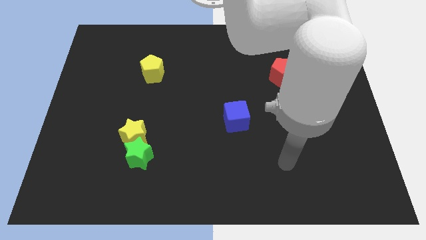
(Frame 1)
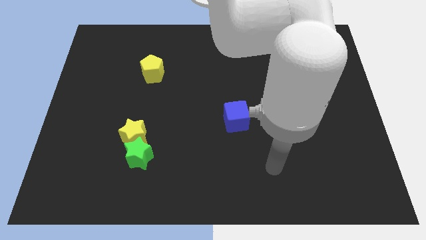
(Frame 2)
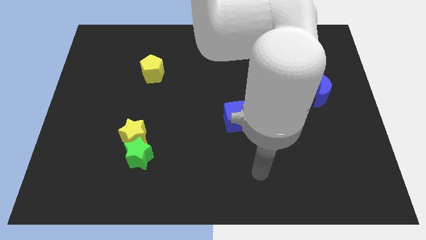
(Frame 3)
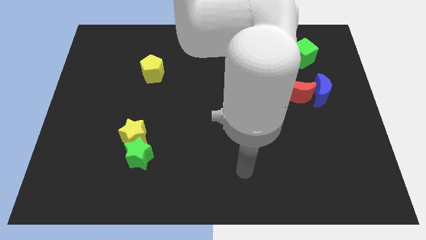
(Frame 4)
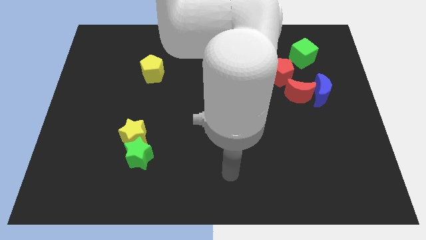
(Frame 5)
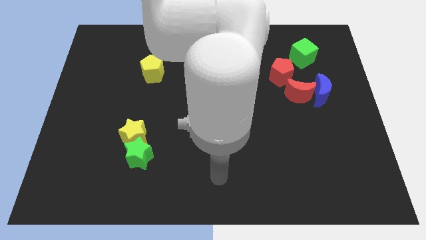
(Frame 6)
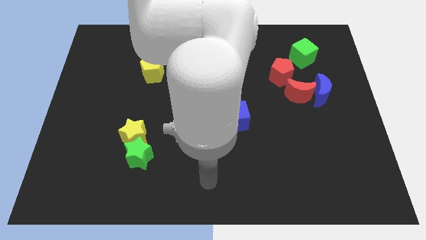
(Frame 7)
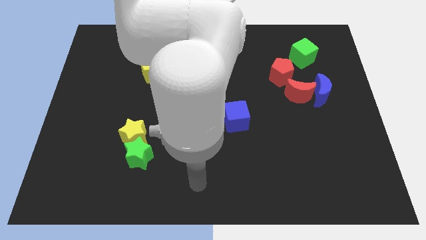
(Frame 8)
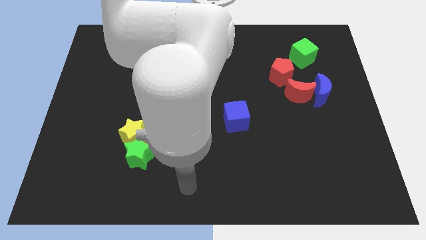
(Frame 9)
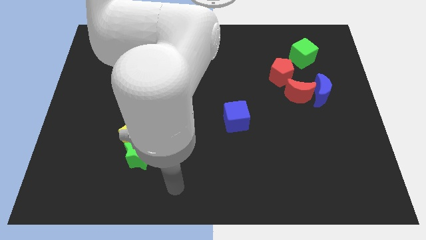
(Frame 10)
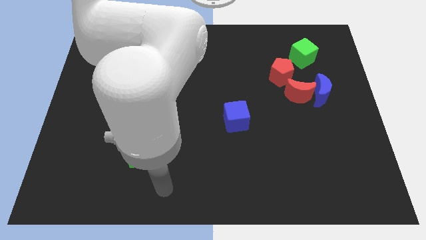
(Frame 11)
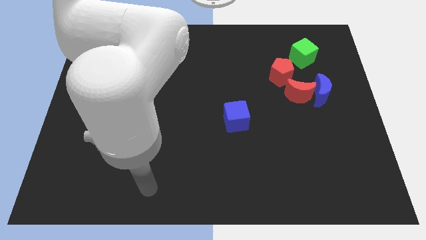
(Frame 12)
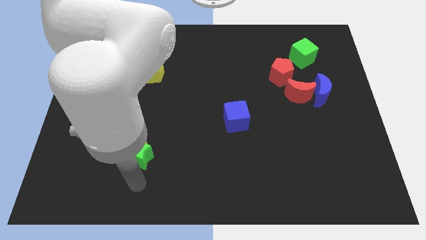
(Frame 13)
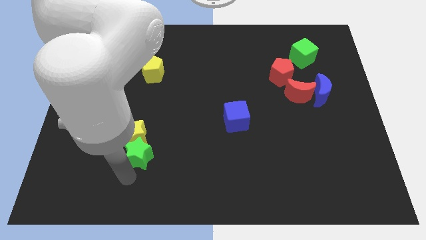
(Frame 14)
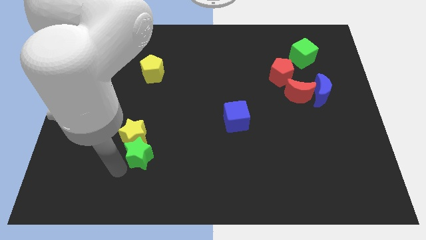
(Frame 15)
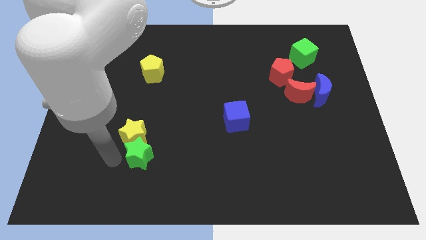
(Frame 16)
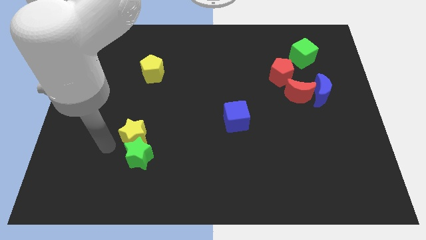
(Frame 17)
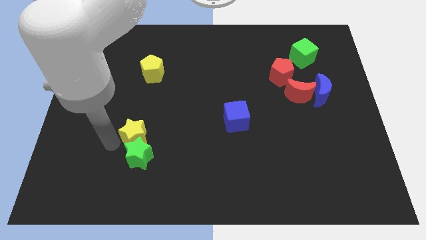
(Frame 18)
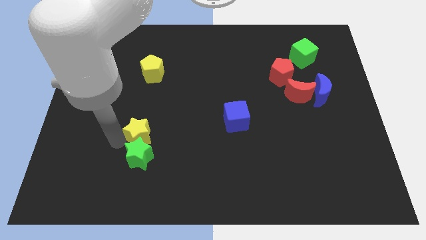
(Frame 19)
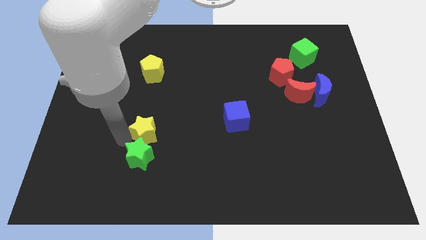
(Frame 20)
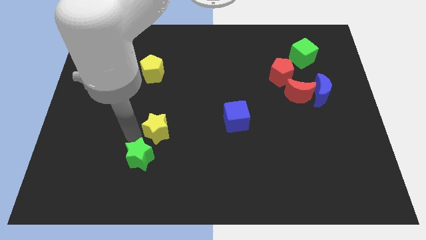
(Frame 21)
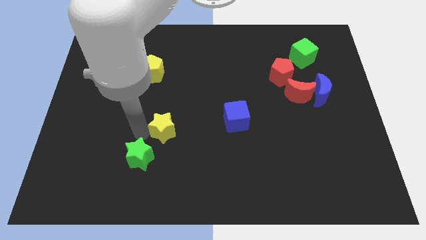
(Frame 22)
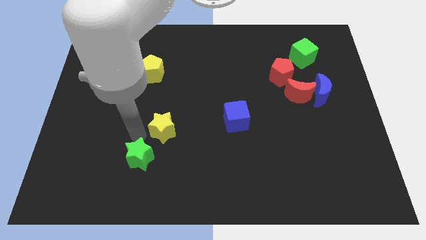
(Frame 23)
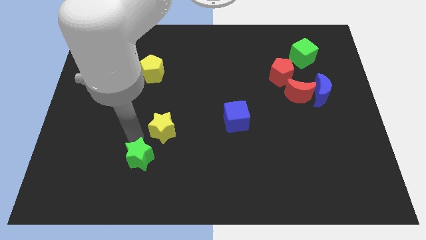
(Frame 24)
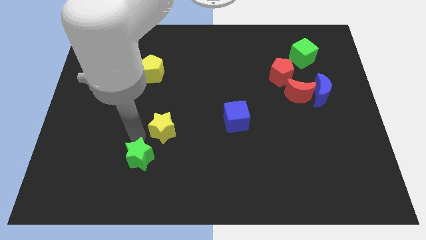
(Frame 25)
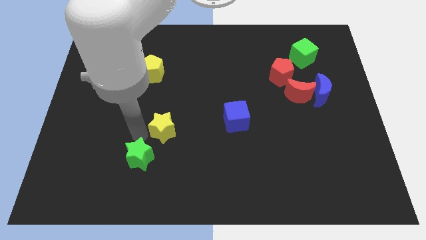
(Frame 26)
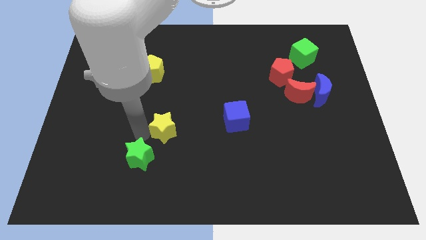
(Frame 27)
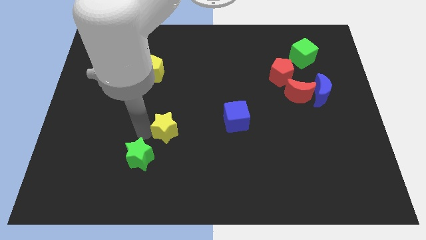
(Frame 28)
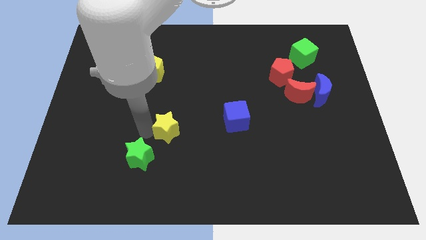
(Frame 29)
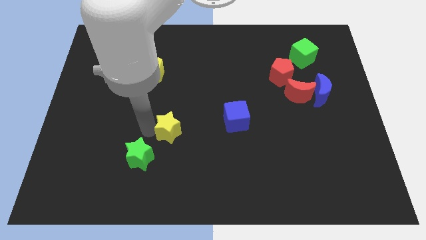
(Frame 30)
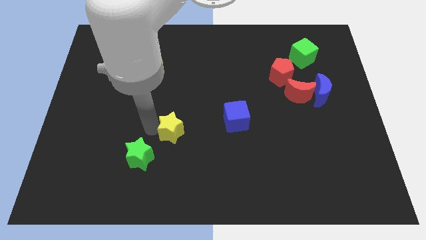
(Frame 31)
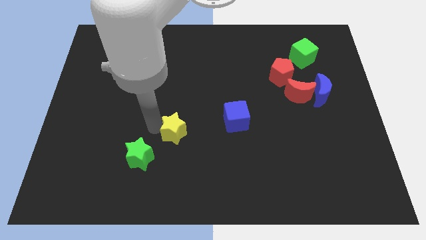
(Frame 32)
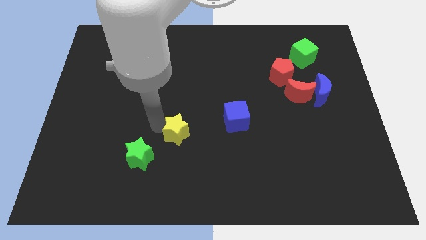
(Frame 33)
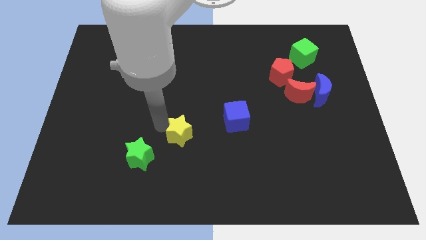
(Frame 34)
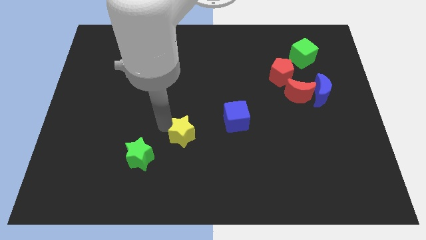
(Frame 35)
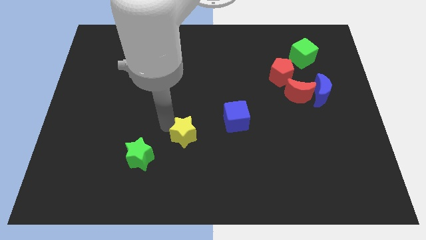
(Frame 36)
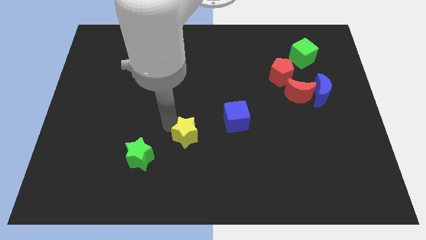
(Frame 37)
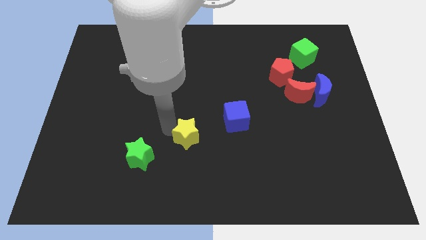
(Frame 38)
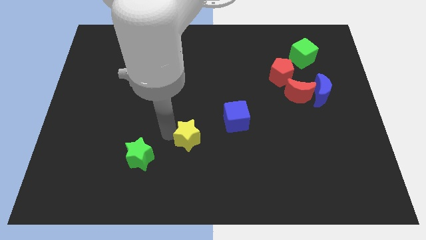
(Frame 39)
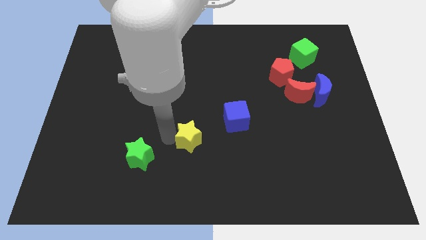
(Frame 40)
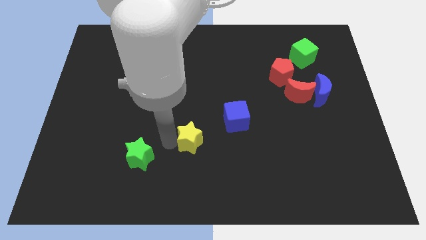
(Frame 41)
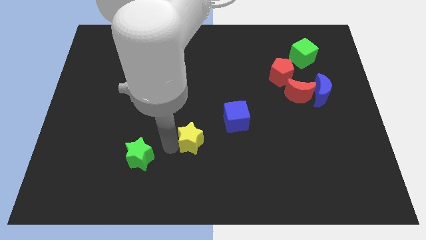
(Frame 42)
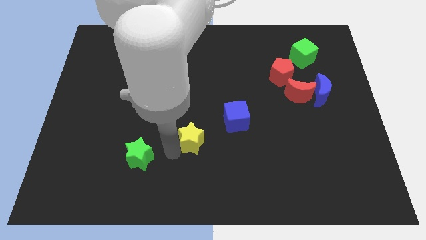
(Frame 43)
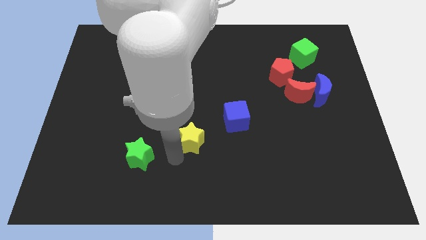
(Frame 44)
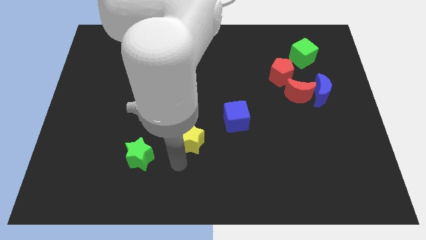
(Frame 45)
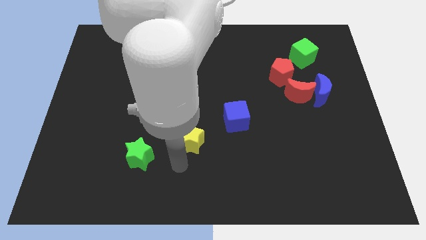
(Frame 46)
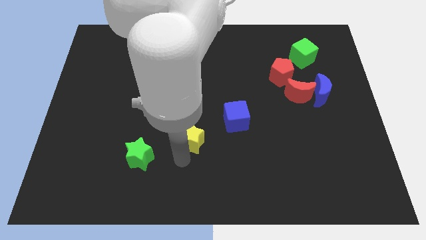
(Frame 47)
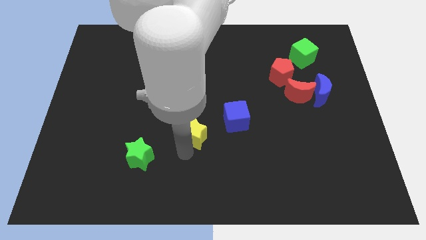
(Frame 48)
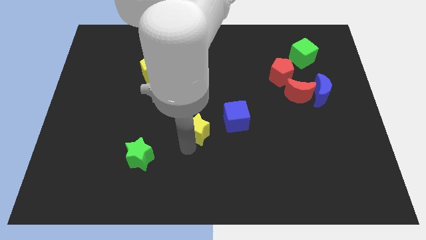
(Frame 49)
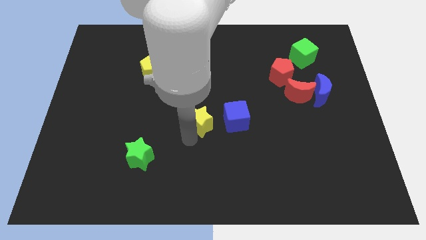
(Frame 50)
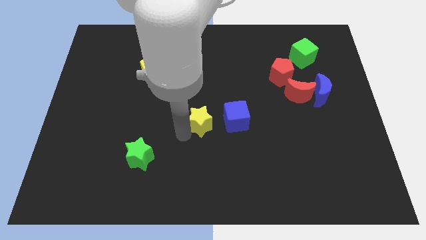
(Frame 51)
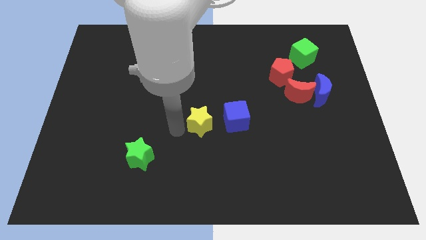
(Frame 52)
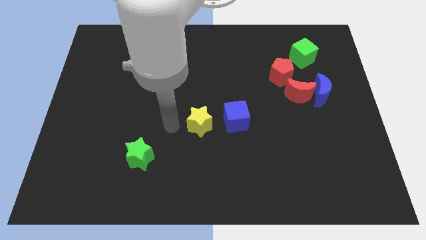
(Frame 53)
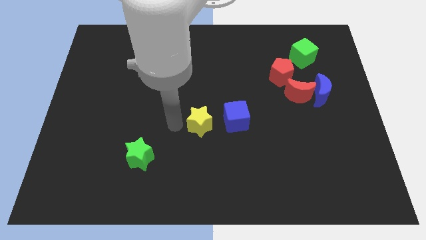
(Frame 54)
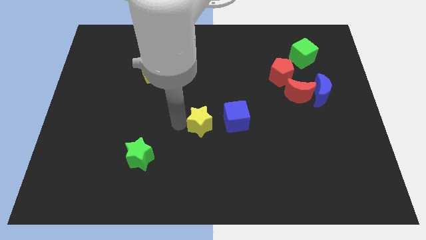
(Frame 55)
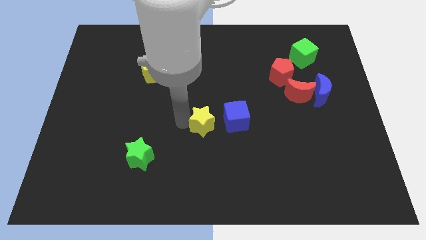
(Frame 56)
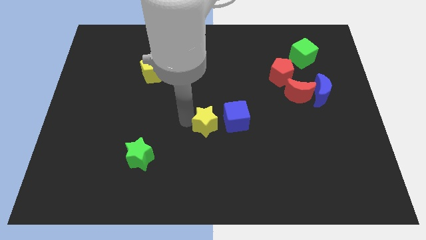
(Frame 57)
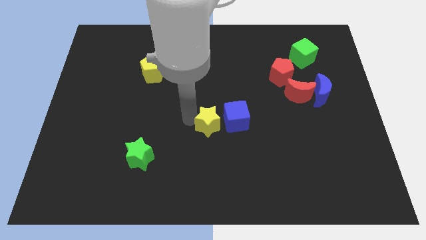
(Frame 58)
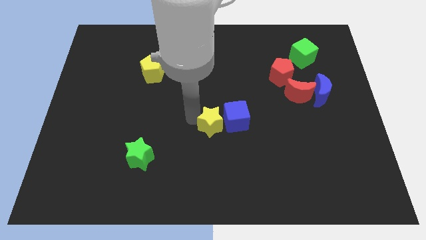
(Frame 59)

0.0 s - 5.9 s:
slide the yellow star to the blue cube

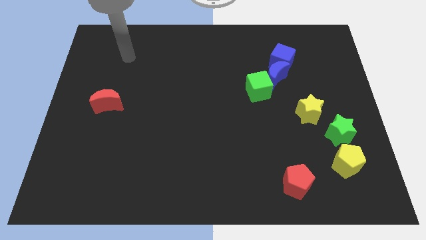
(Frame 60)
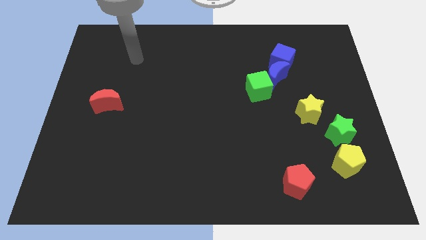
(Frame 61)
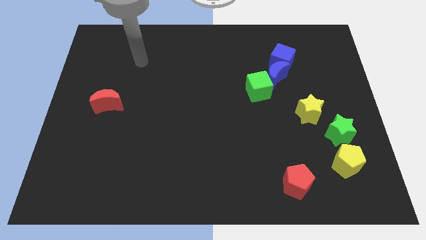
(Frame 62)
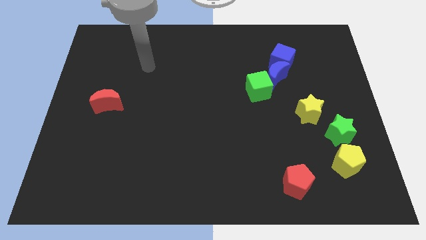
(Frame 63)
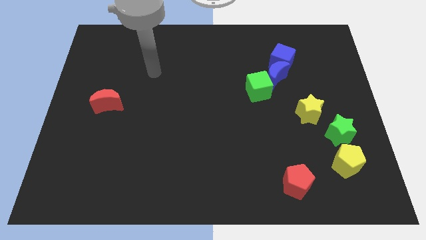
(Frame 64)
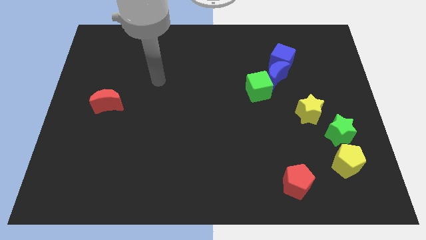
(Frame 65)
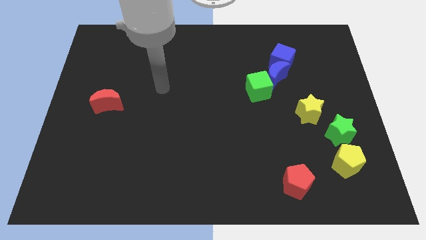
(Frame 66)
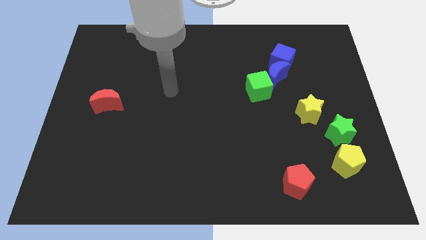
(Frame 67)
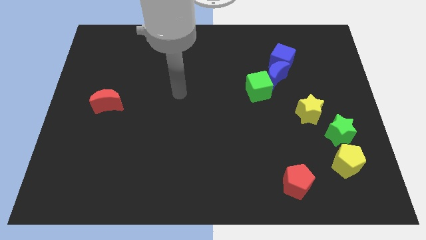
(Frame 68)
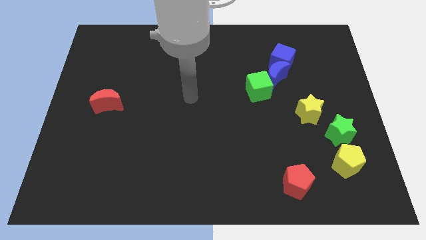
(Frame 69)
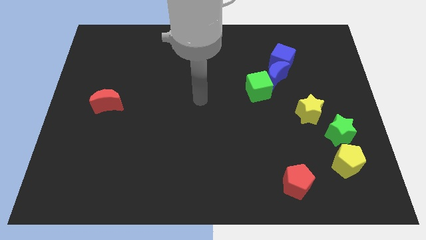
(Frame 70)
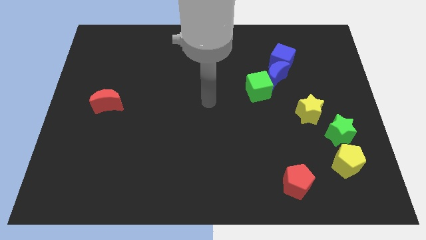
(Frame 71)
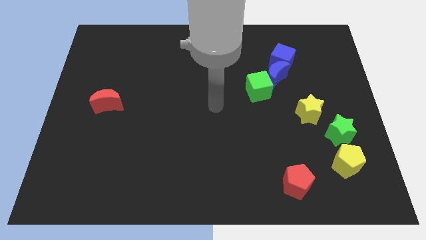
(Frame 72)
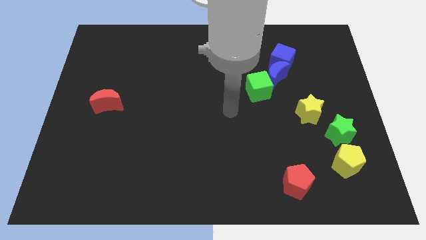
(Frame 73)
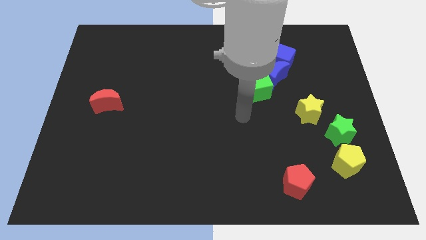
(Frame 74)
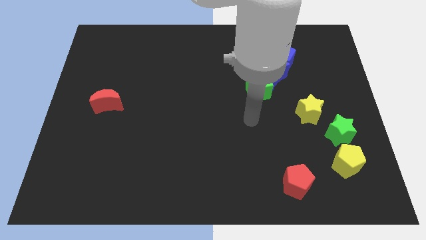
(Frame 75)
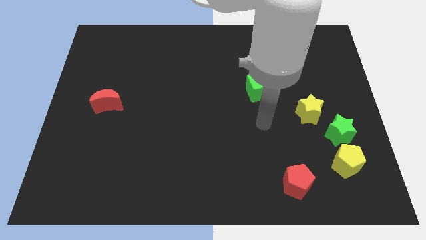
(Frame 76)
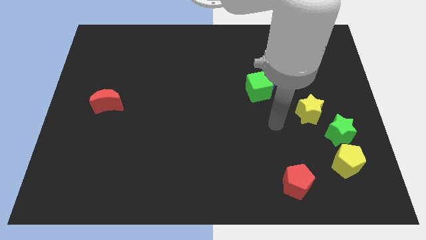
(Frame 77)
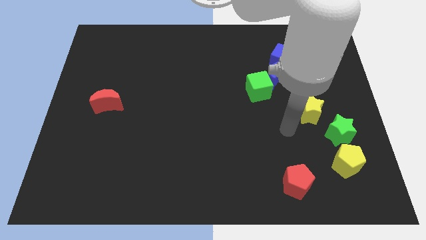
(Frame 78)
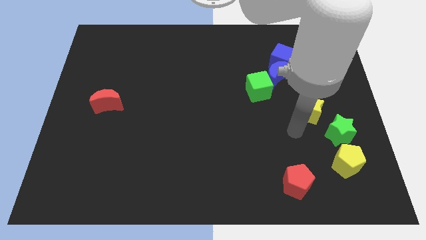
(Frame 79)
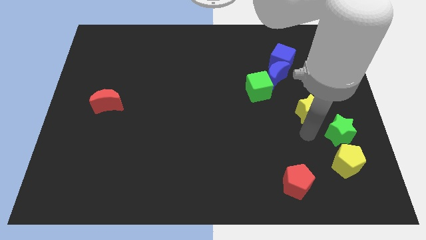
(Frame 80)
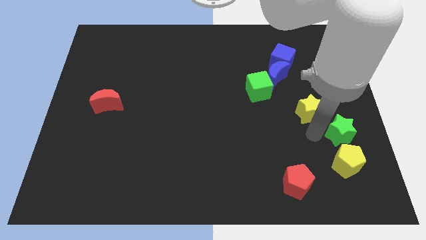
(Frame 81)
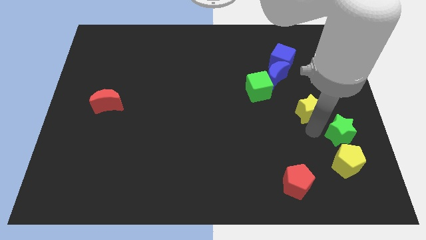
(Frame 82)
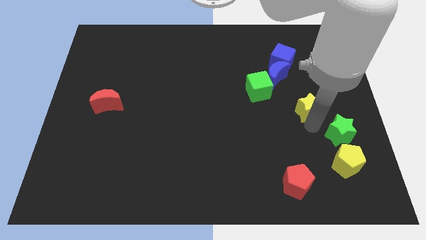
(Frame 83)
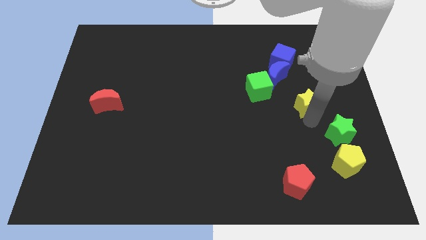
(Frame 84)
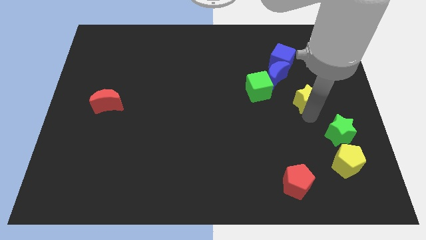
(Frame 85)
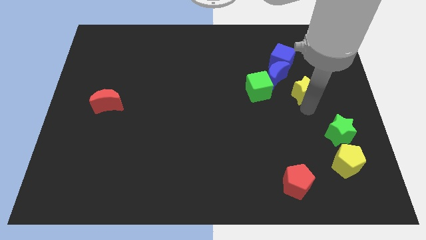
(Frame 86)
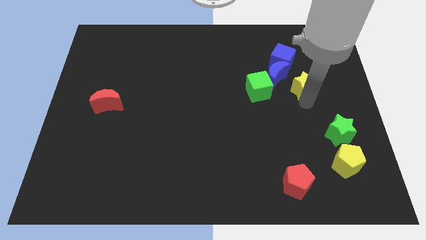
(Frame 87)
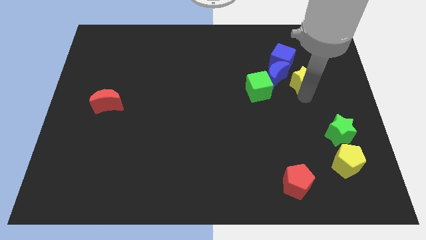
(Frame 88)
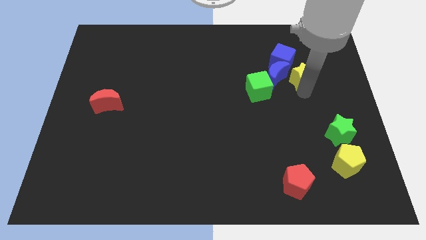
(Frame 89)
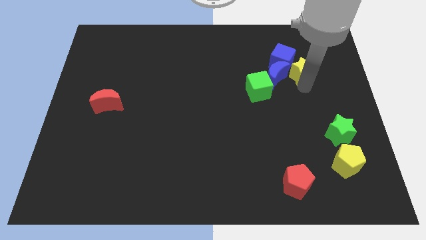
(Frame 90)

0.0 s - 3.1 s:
push the yellow star towards the blue cube

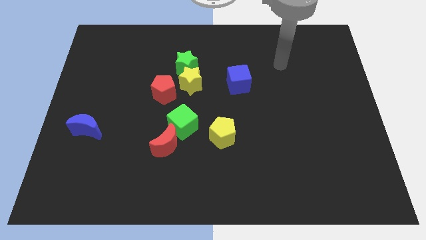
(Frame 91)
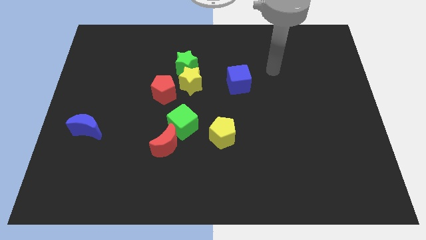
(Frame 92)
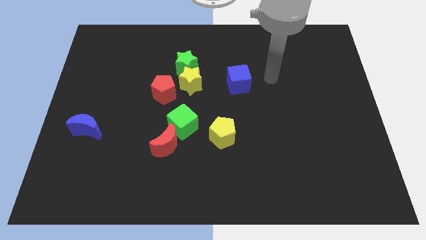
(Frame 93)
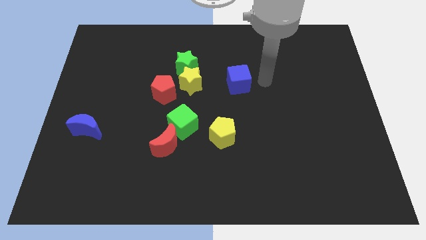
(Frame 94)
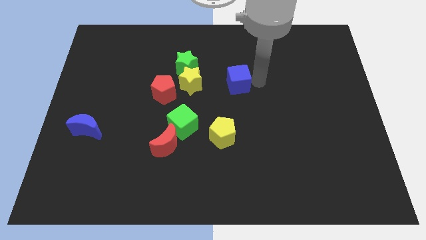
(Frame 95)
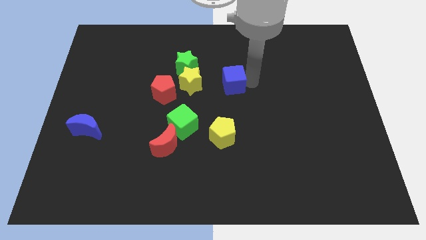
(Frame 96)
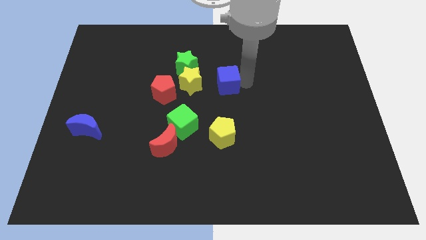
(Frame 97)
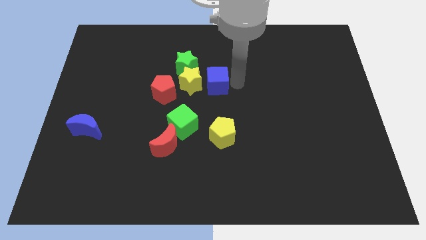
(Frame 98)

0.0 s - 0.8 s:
slide the blue cube towards the yellow star
